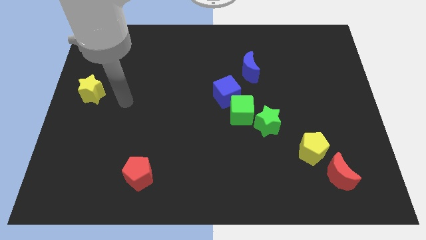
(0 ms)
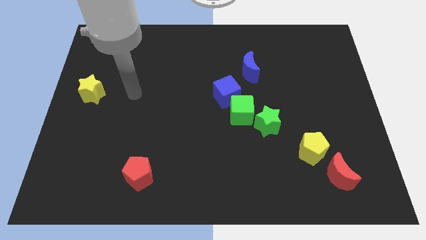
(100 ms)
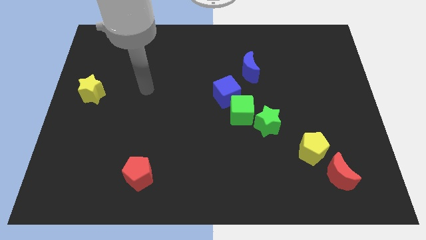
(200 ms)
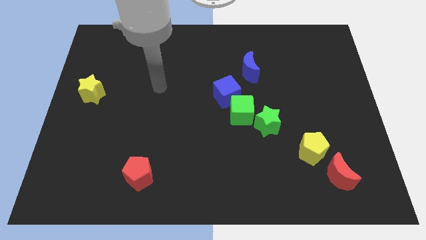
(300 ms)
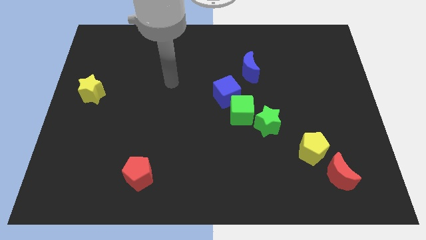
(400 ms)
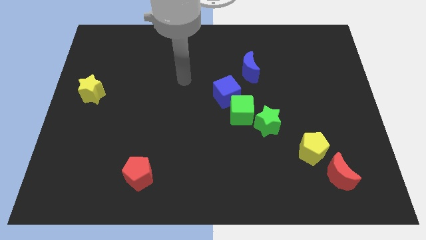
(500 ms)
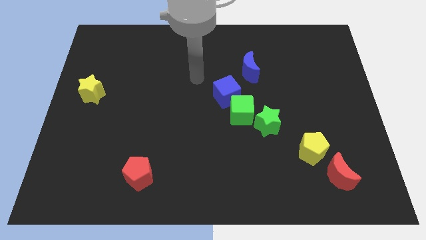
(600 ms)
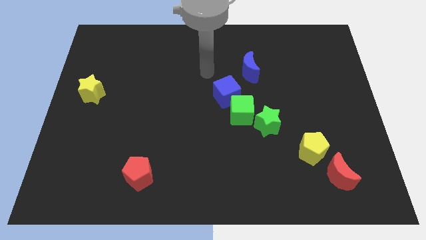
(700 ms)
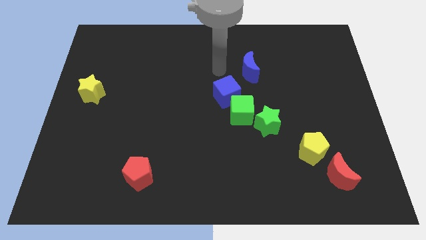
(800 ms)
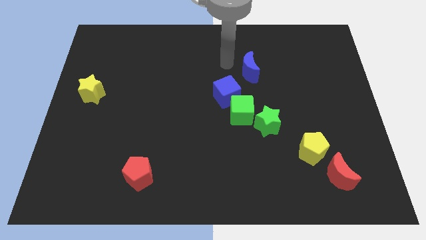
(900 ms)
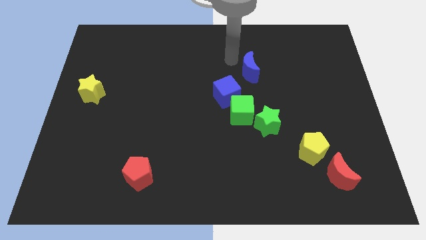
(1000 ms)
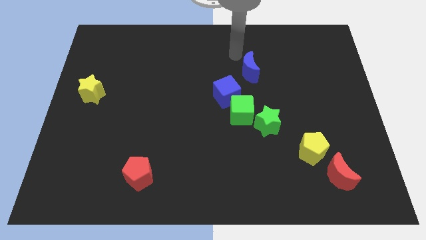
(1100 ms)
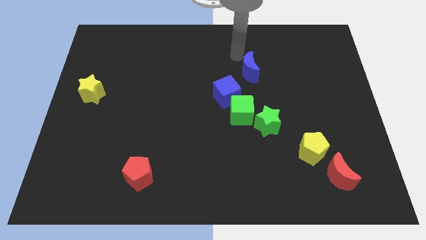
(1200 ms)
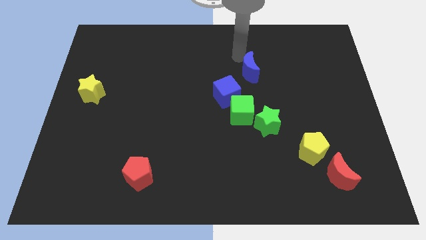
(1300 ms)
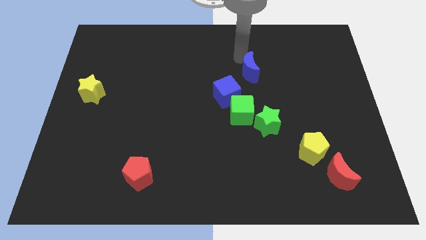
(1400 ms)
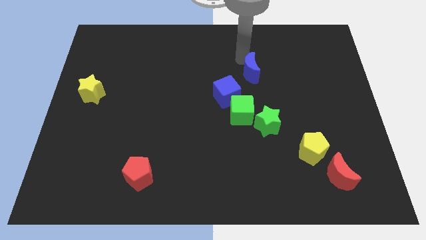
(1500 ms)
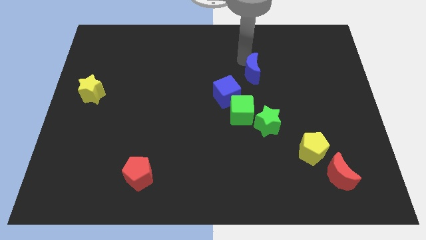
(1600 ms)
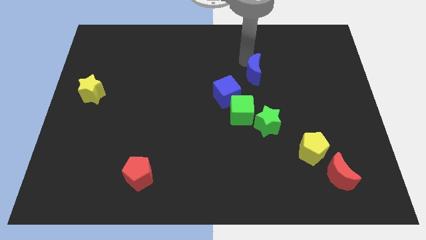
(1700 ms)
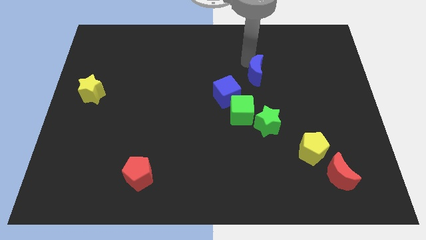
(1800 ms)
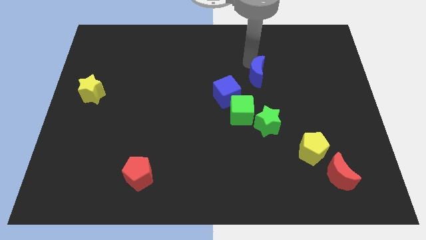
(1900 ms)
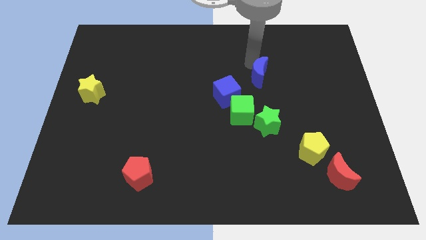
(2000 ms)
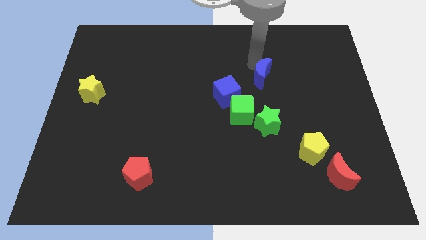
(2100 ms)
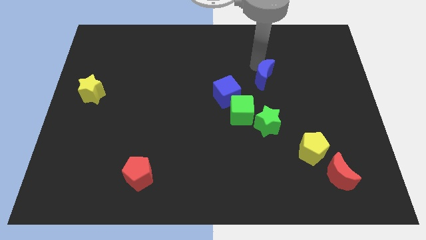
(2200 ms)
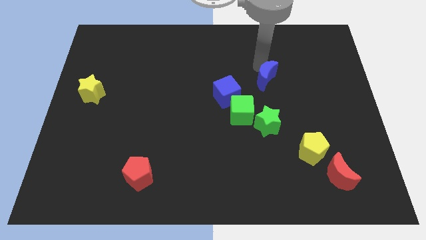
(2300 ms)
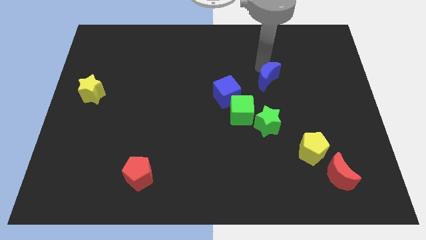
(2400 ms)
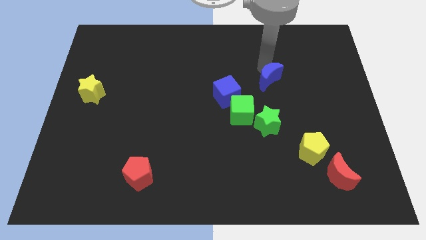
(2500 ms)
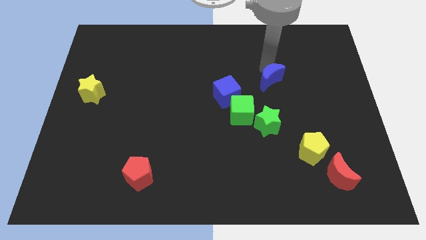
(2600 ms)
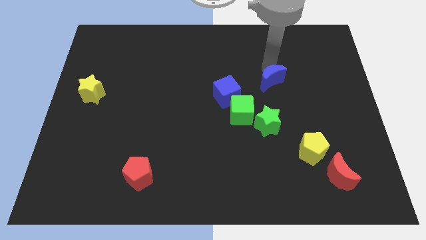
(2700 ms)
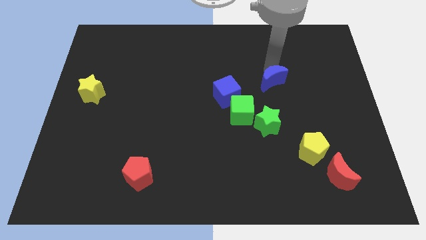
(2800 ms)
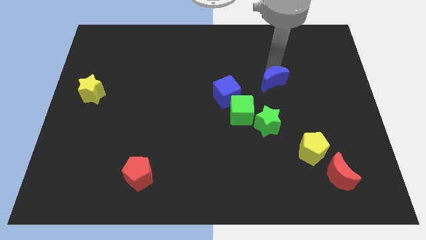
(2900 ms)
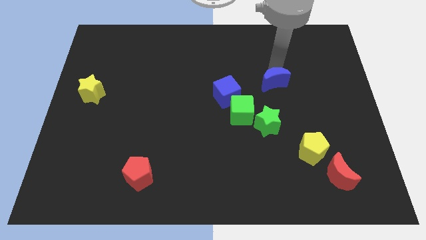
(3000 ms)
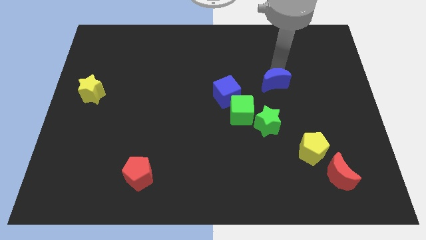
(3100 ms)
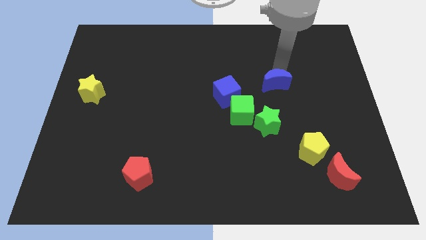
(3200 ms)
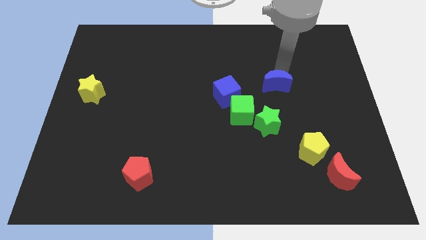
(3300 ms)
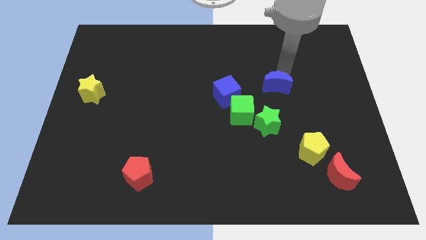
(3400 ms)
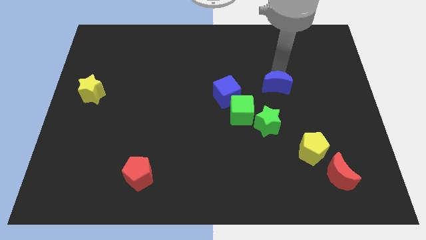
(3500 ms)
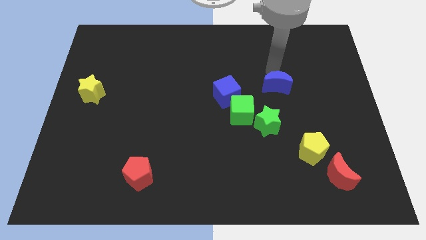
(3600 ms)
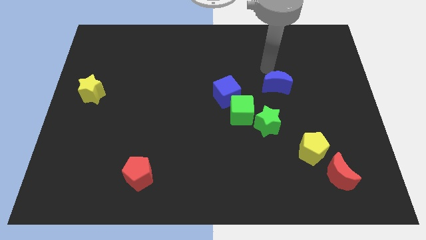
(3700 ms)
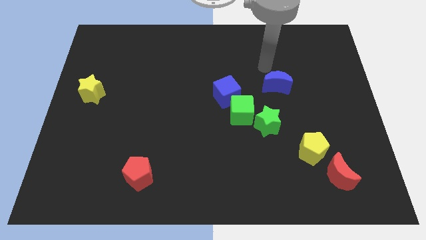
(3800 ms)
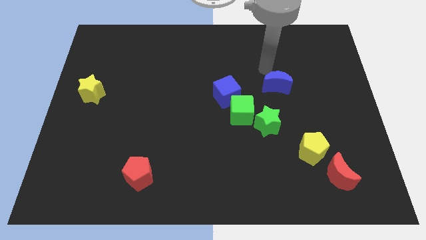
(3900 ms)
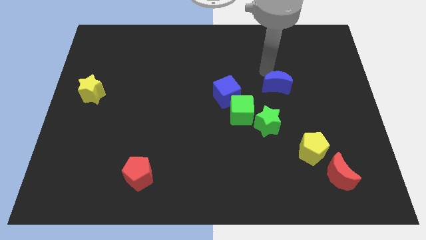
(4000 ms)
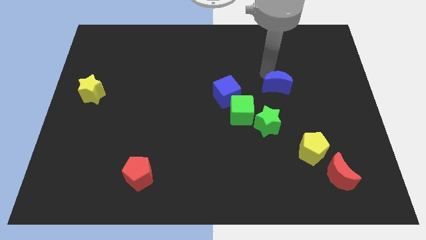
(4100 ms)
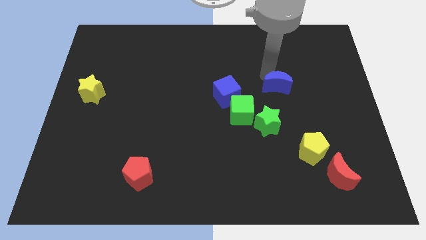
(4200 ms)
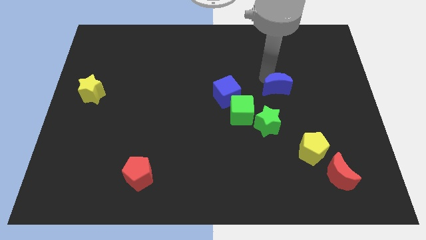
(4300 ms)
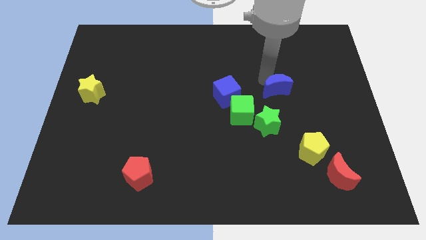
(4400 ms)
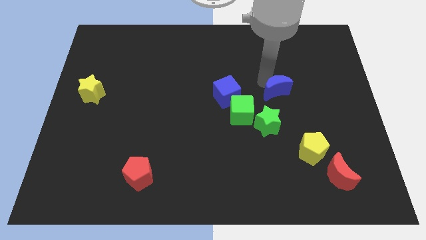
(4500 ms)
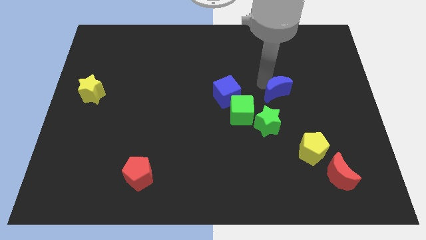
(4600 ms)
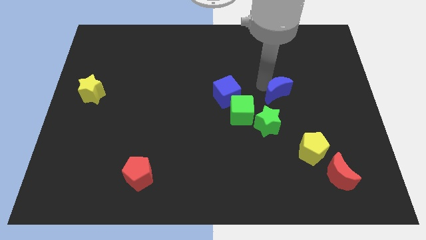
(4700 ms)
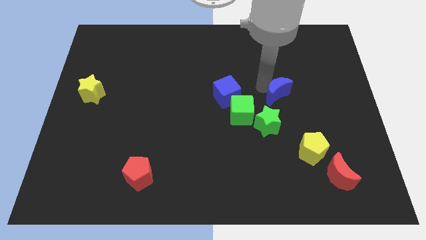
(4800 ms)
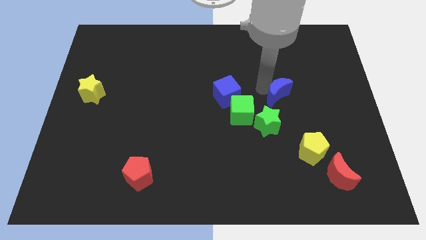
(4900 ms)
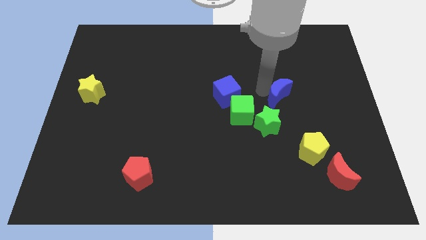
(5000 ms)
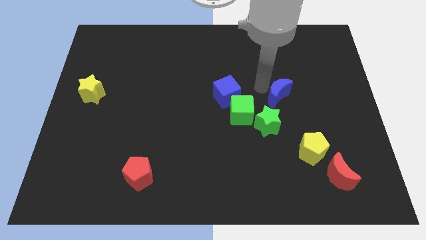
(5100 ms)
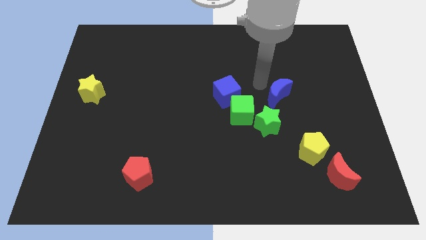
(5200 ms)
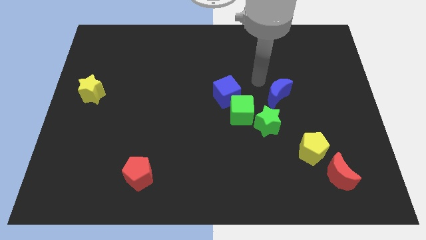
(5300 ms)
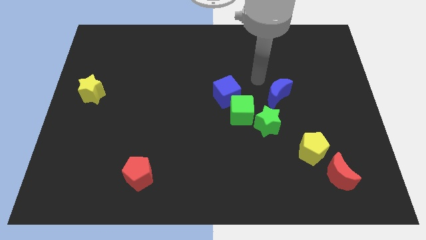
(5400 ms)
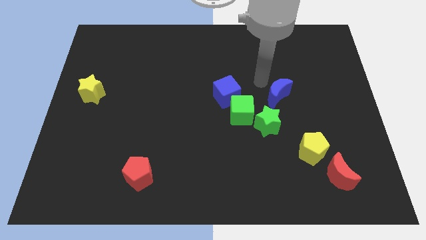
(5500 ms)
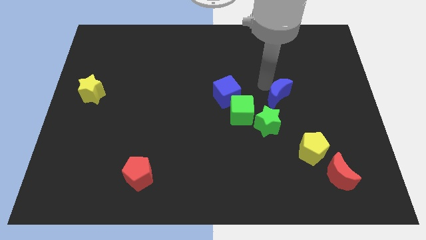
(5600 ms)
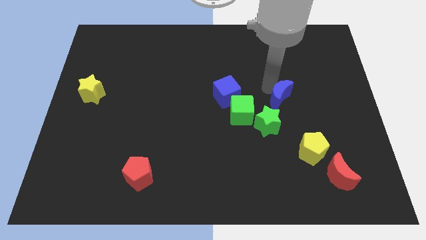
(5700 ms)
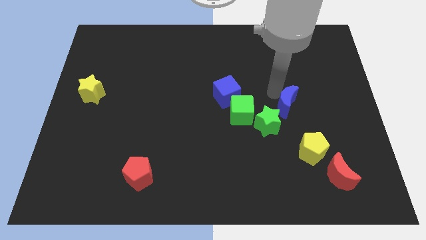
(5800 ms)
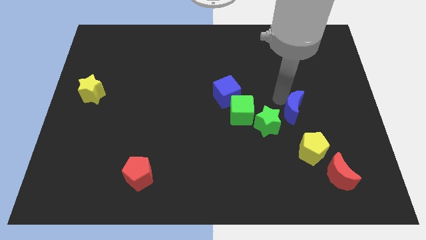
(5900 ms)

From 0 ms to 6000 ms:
put the blue moon to the right of the green star

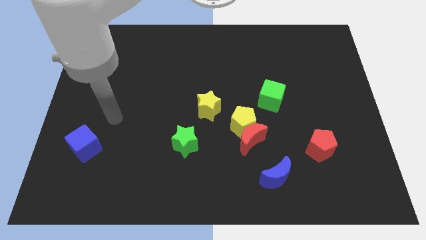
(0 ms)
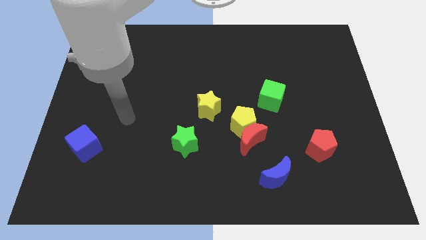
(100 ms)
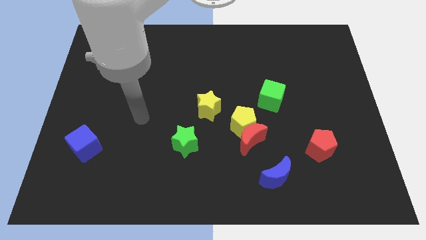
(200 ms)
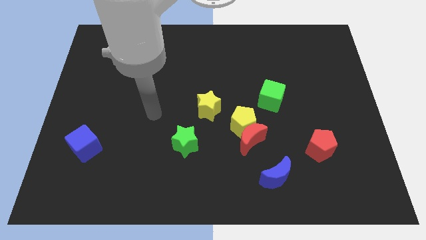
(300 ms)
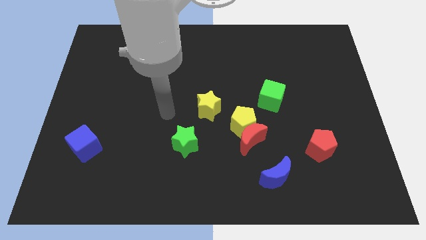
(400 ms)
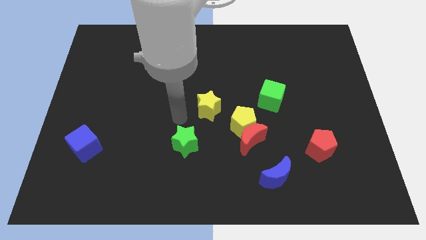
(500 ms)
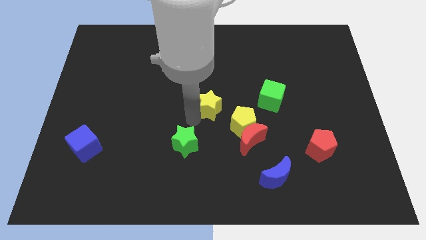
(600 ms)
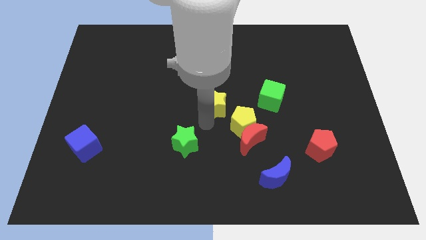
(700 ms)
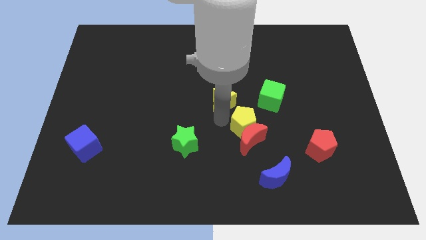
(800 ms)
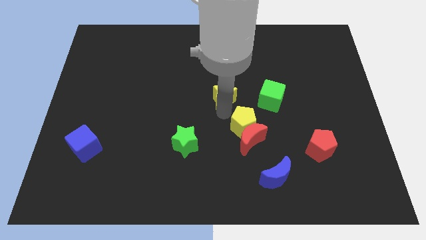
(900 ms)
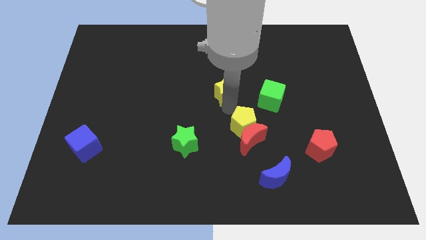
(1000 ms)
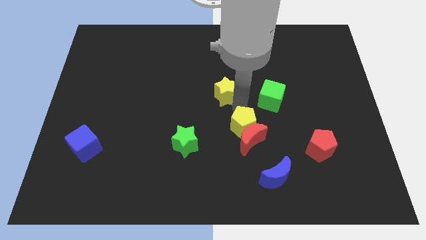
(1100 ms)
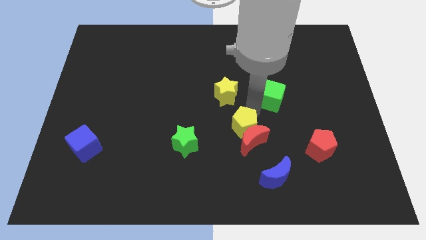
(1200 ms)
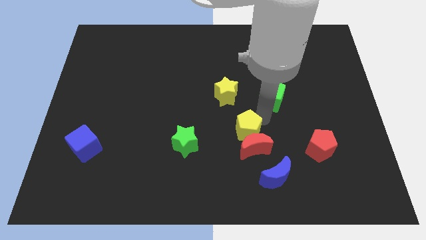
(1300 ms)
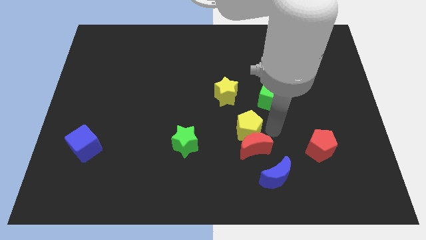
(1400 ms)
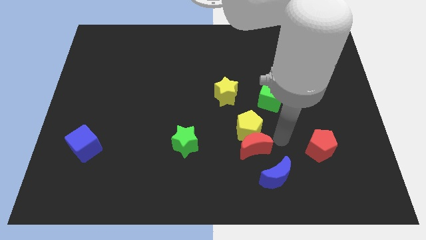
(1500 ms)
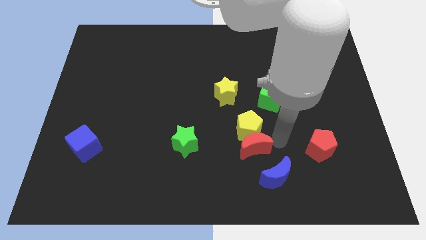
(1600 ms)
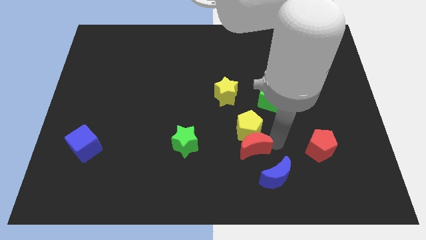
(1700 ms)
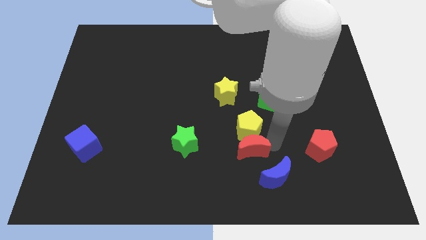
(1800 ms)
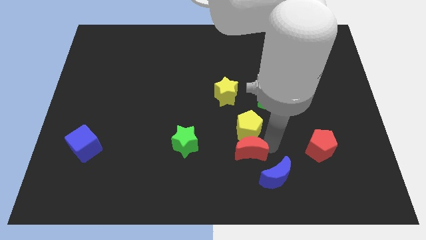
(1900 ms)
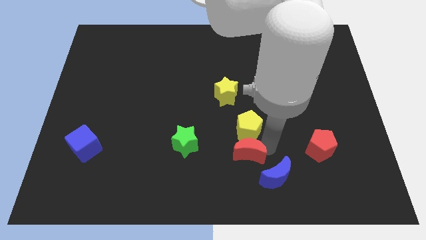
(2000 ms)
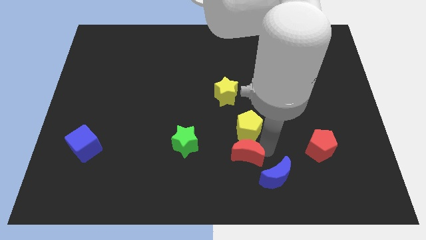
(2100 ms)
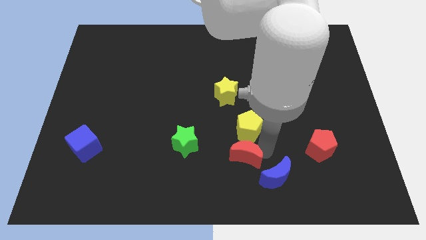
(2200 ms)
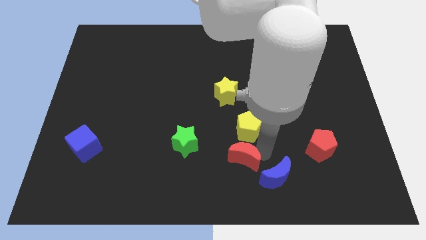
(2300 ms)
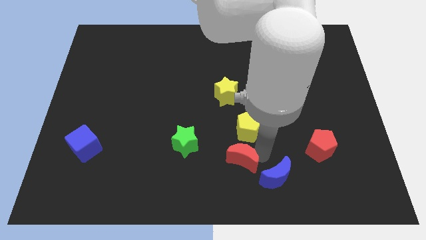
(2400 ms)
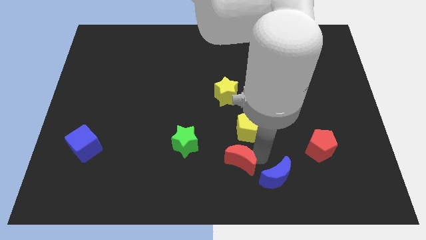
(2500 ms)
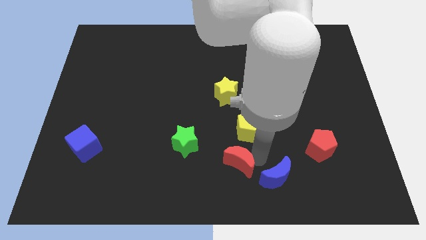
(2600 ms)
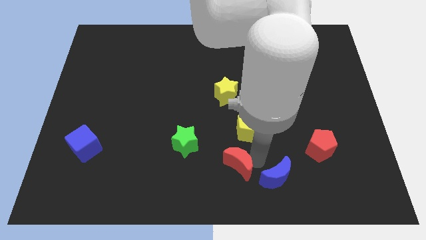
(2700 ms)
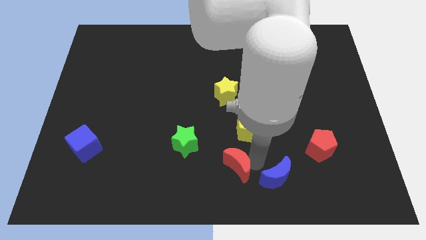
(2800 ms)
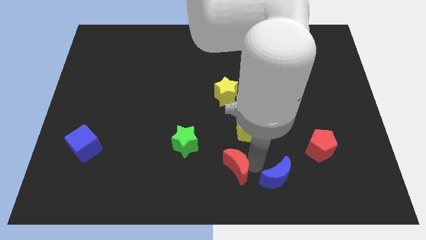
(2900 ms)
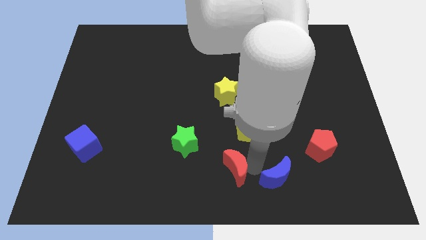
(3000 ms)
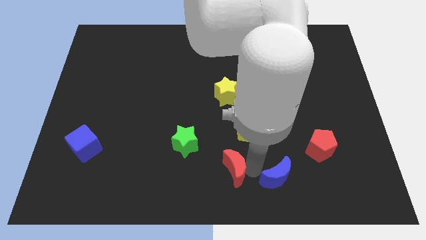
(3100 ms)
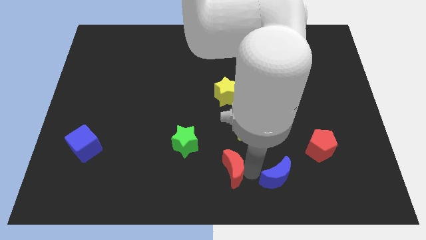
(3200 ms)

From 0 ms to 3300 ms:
slide the red moon to the bottom right side of the green star
